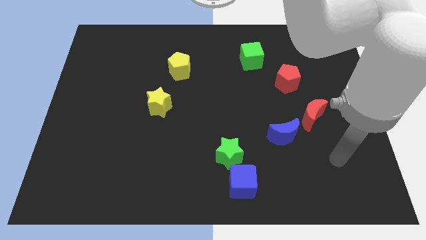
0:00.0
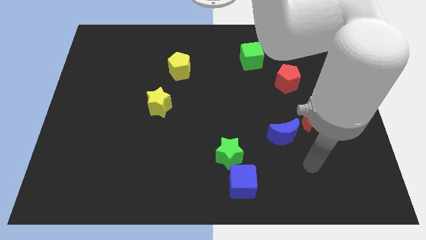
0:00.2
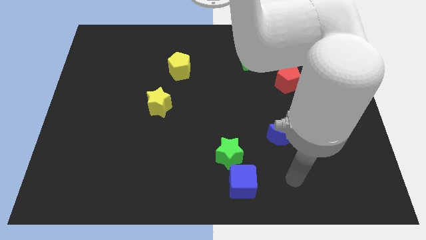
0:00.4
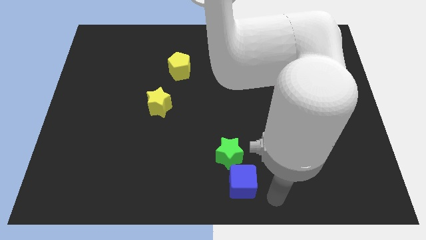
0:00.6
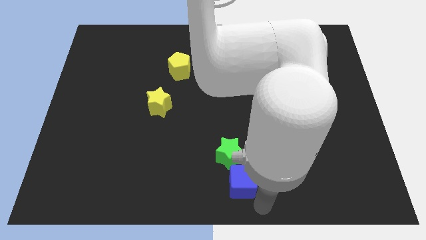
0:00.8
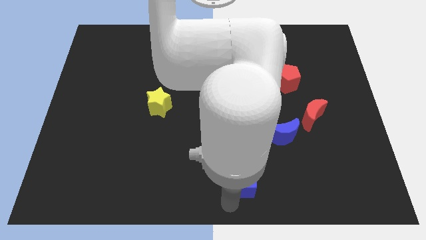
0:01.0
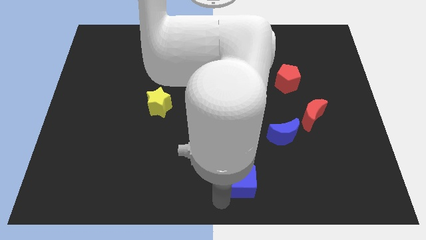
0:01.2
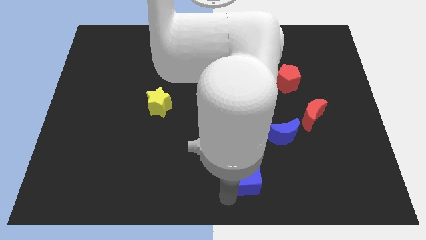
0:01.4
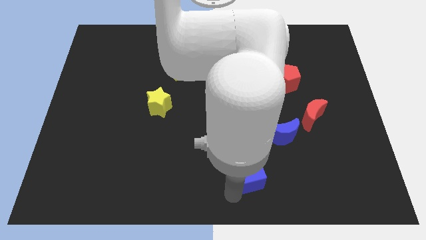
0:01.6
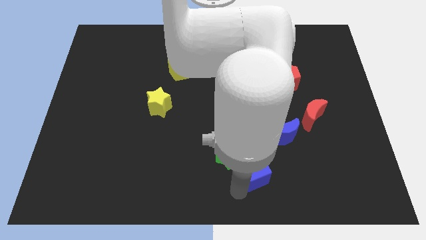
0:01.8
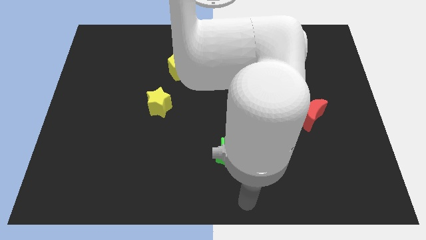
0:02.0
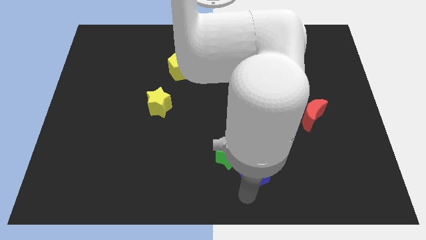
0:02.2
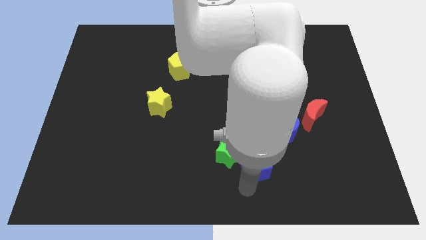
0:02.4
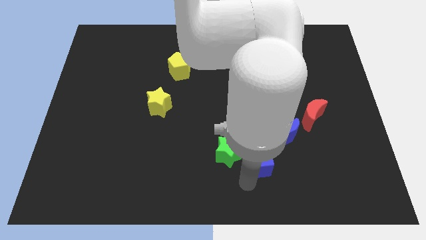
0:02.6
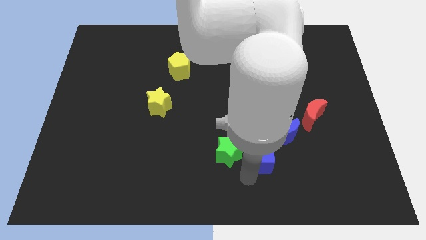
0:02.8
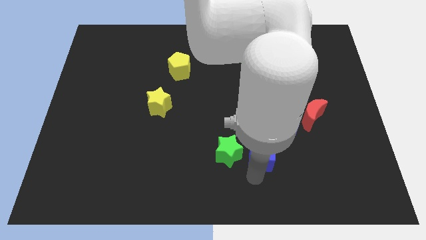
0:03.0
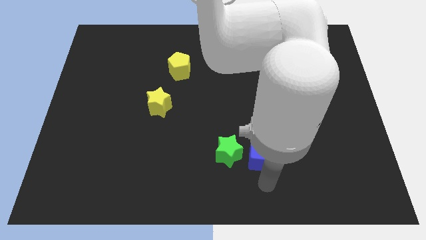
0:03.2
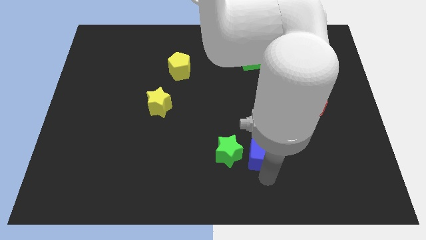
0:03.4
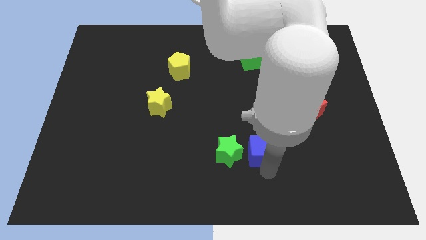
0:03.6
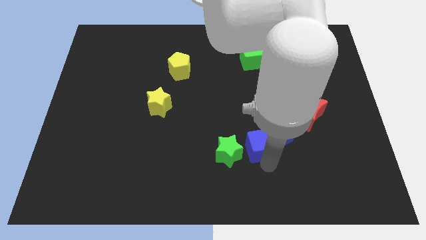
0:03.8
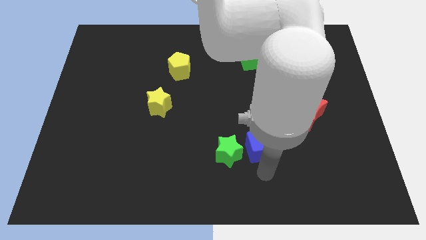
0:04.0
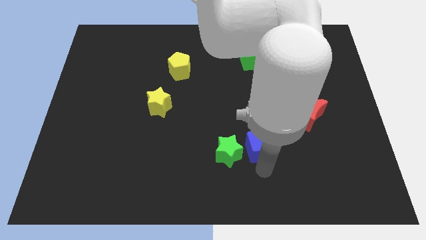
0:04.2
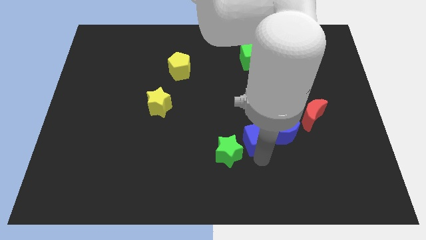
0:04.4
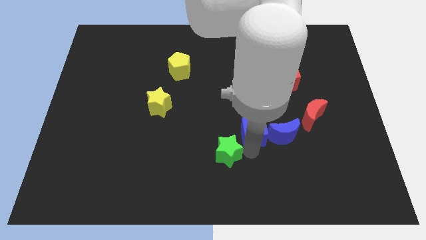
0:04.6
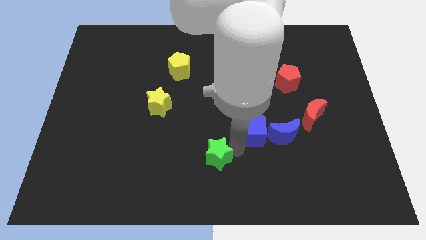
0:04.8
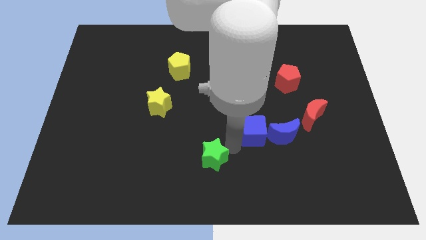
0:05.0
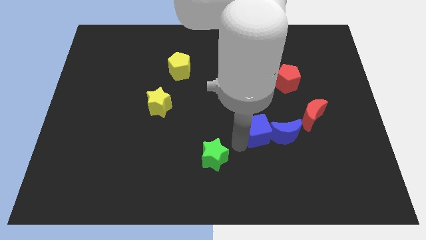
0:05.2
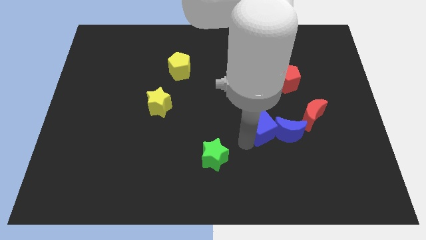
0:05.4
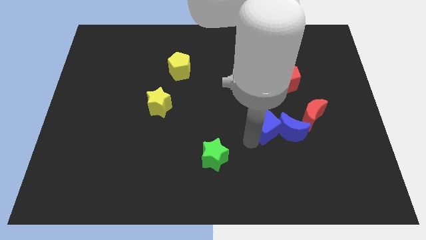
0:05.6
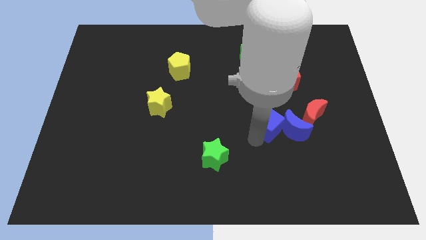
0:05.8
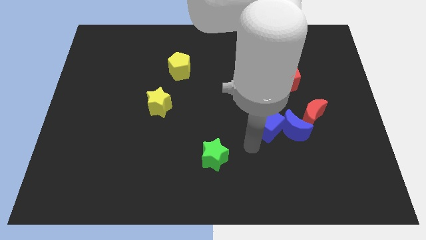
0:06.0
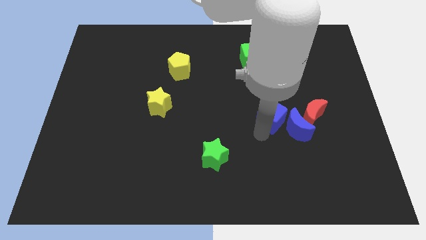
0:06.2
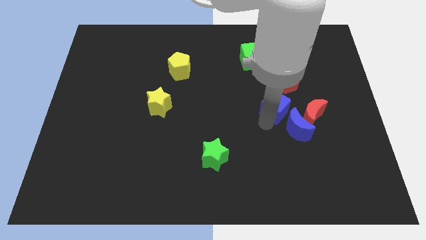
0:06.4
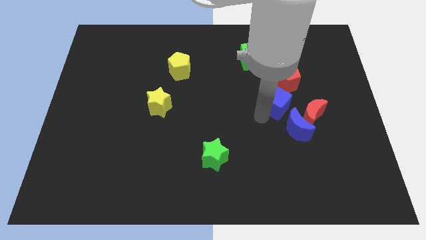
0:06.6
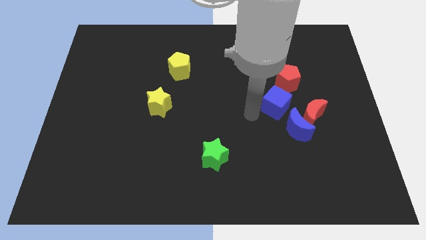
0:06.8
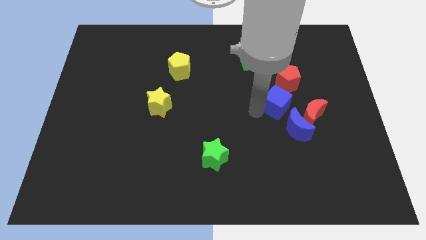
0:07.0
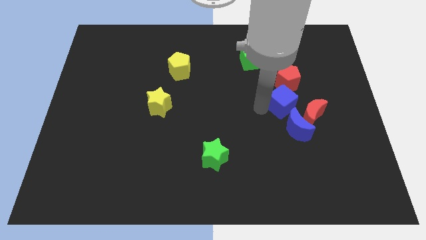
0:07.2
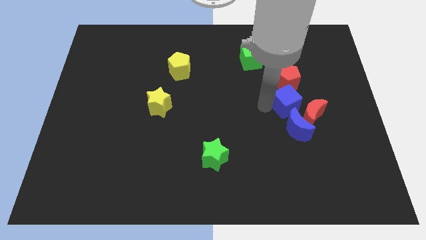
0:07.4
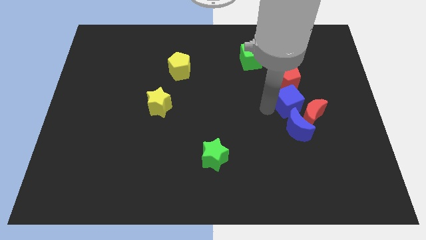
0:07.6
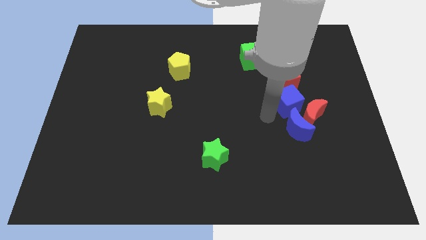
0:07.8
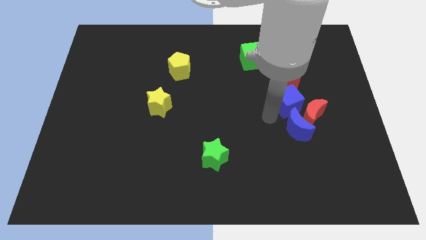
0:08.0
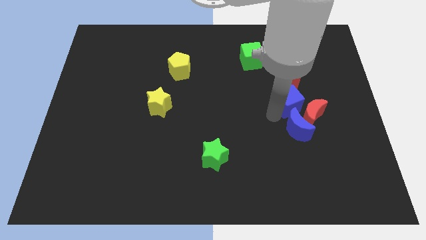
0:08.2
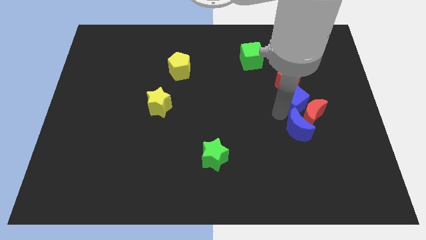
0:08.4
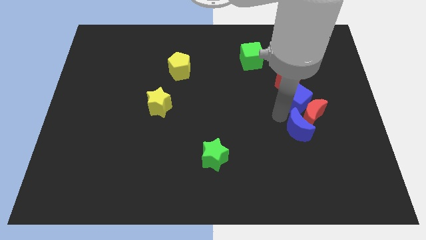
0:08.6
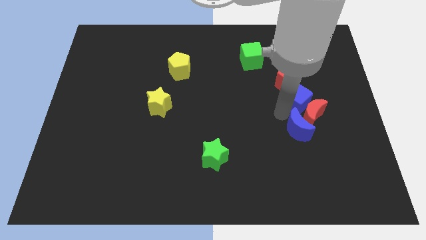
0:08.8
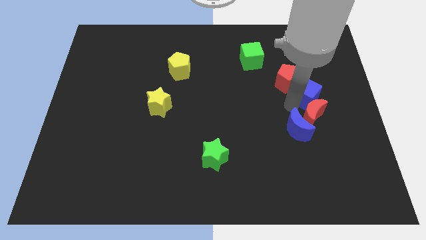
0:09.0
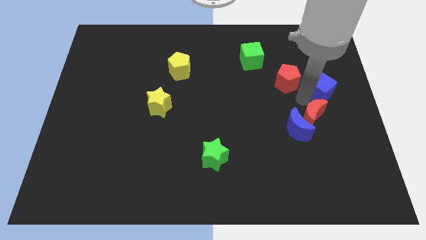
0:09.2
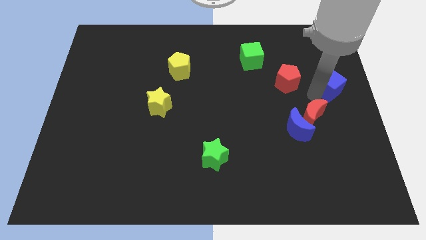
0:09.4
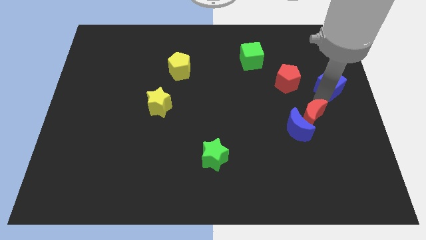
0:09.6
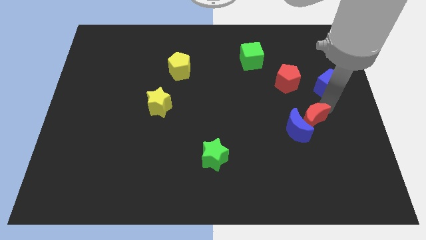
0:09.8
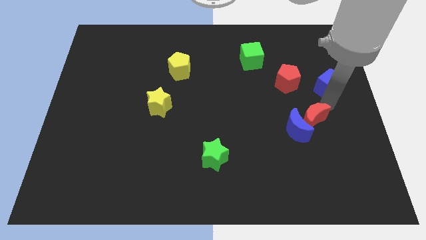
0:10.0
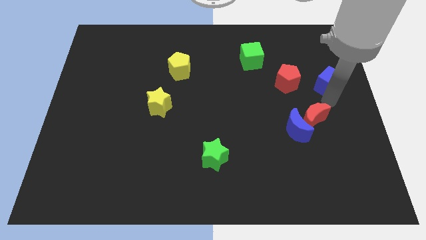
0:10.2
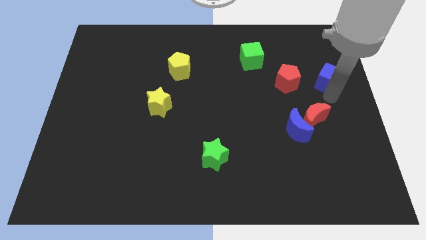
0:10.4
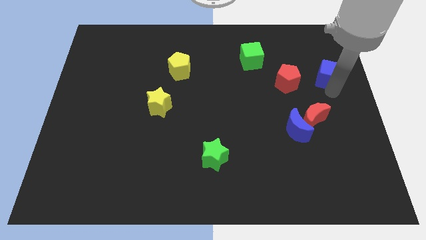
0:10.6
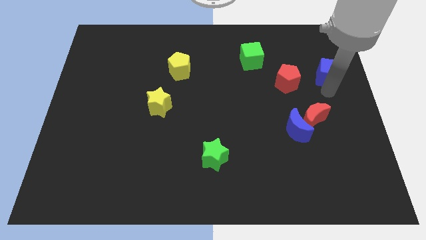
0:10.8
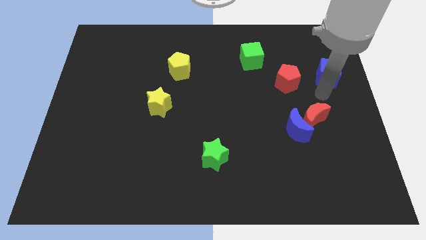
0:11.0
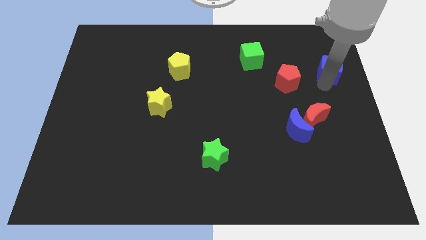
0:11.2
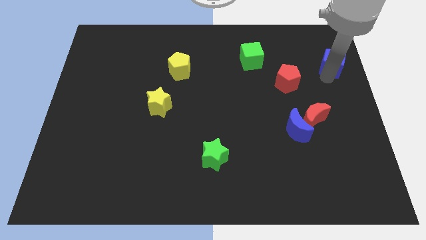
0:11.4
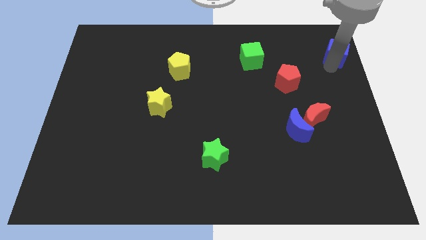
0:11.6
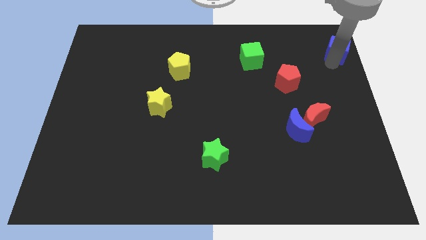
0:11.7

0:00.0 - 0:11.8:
slide the blue cube to the top right

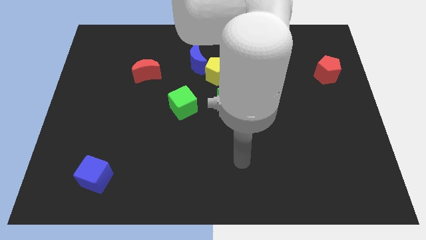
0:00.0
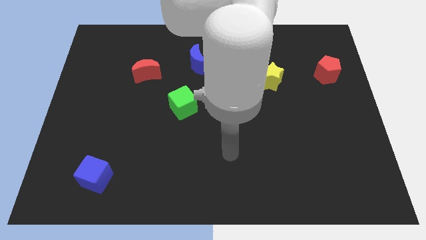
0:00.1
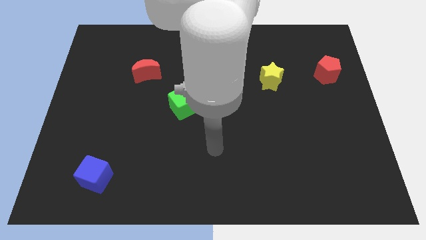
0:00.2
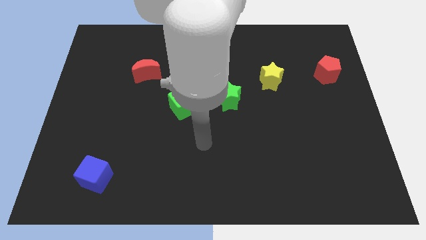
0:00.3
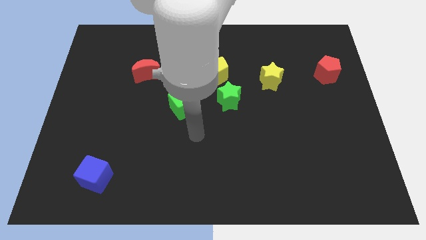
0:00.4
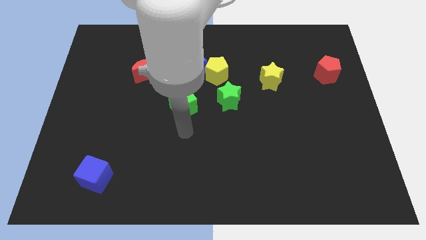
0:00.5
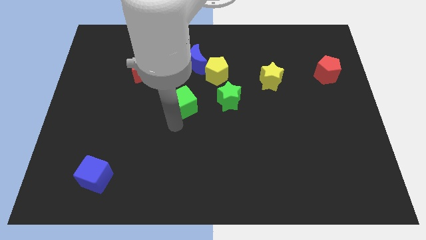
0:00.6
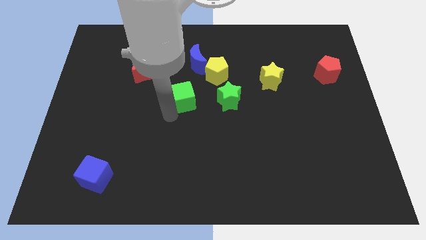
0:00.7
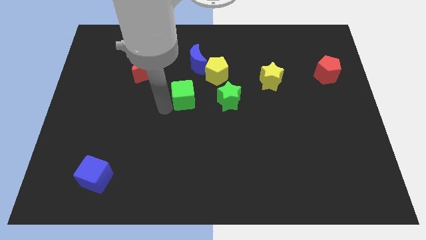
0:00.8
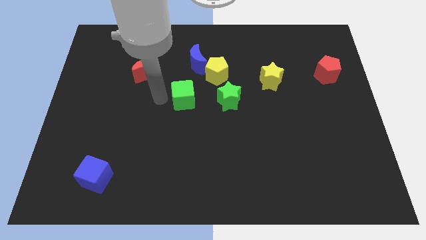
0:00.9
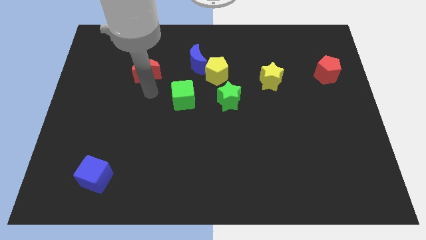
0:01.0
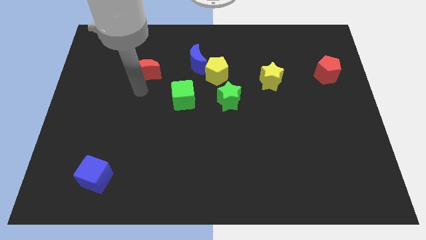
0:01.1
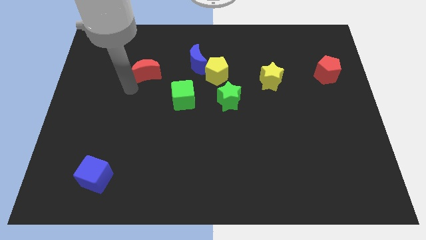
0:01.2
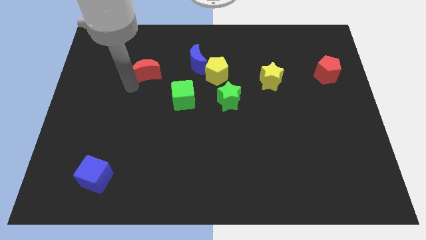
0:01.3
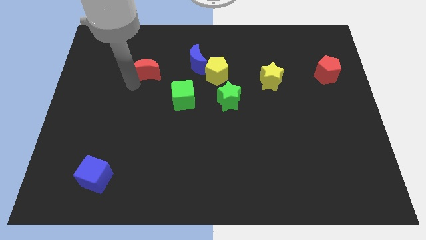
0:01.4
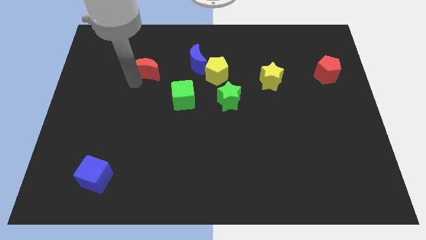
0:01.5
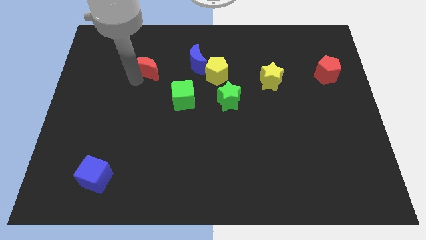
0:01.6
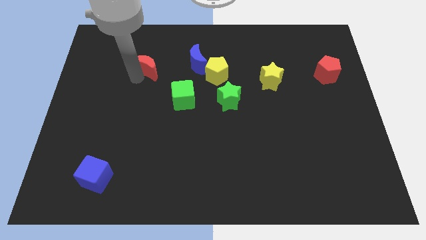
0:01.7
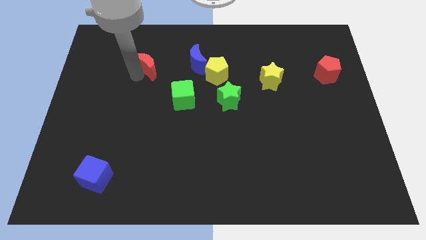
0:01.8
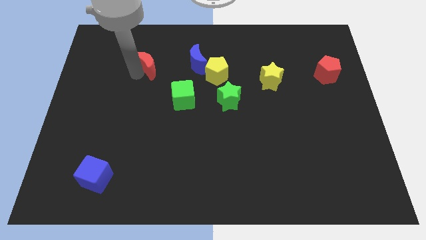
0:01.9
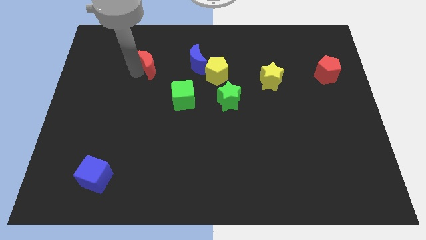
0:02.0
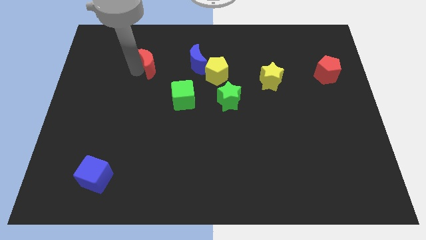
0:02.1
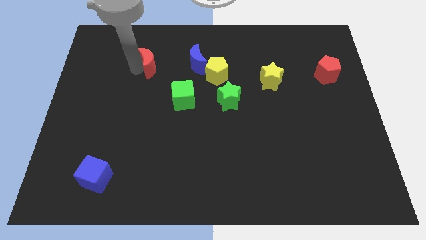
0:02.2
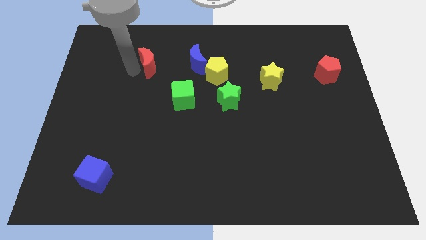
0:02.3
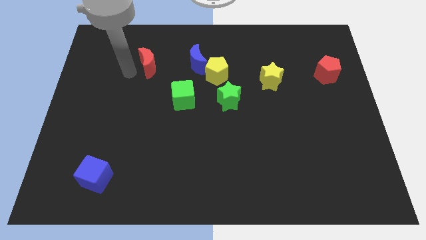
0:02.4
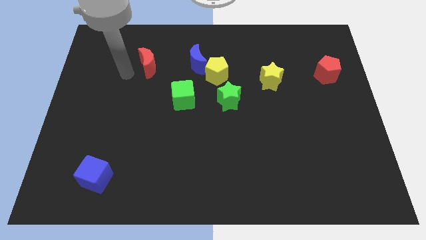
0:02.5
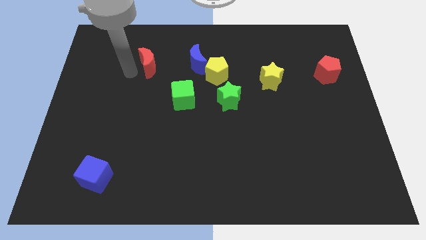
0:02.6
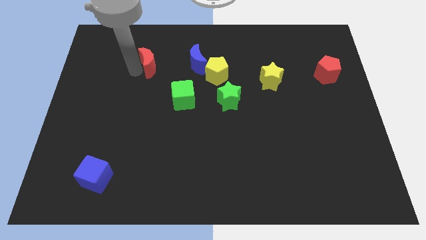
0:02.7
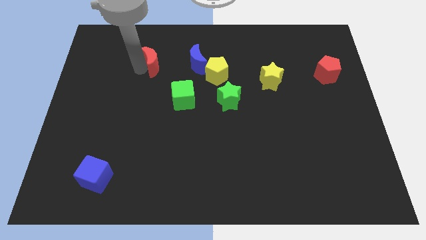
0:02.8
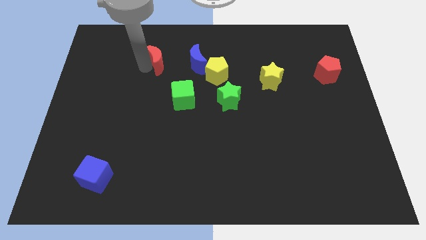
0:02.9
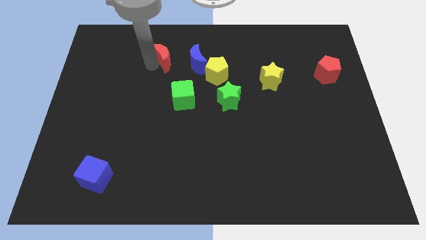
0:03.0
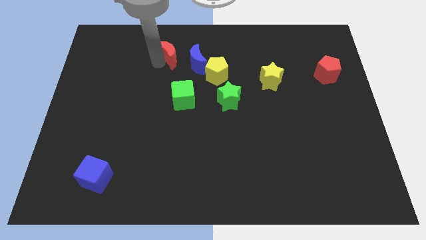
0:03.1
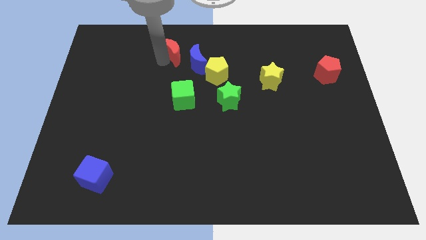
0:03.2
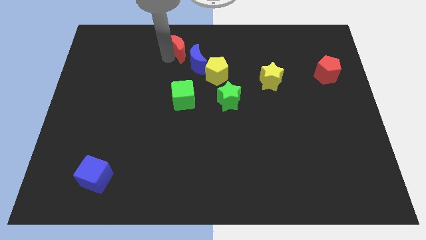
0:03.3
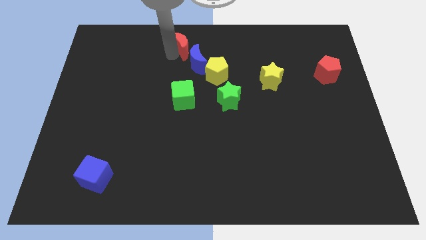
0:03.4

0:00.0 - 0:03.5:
move the red moon to the top
